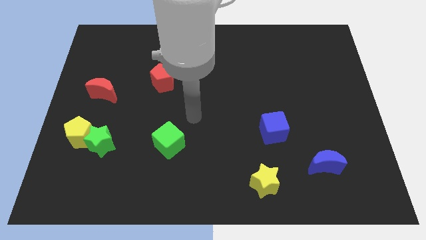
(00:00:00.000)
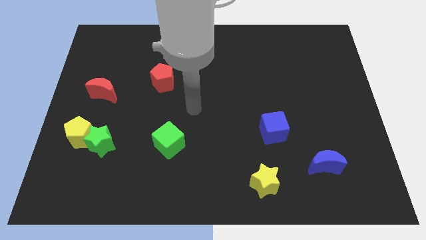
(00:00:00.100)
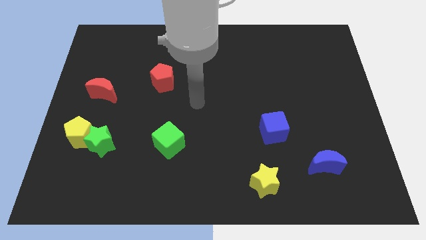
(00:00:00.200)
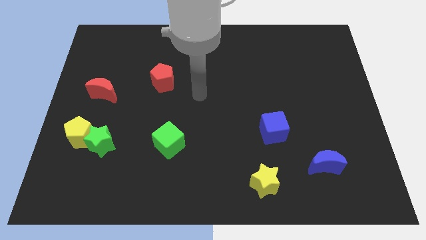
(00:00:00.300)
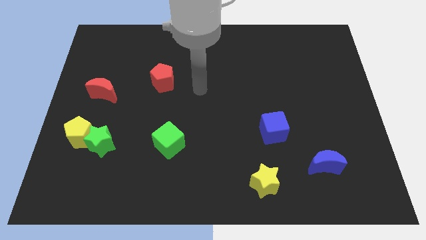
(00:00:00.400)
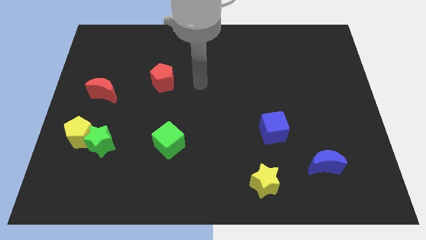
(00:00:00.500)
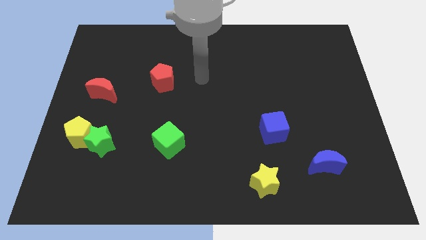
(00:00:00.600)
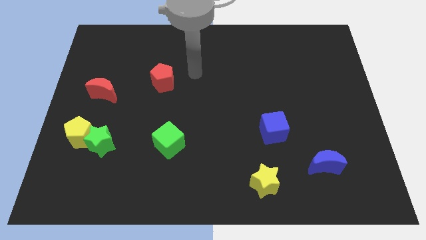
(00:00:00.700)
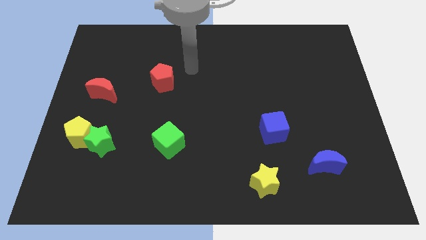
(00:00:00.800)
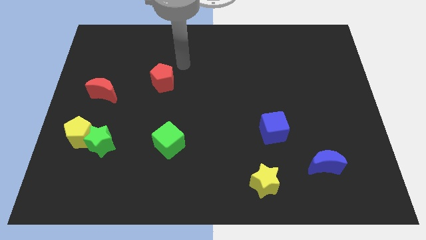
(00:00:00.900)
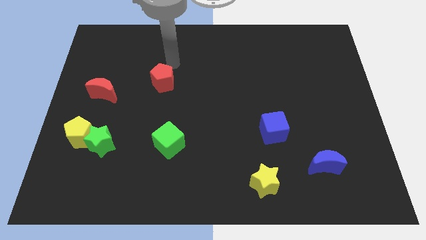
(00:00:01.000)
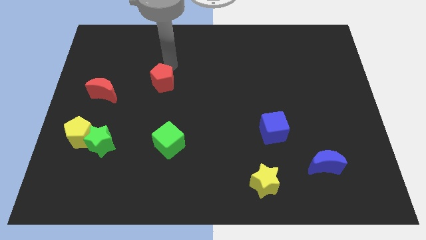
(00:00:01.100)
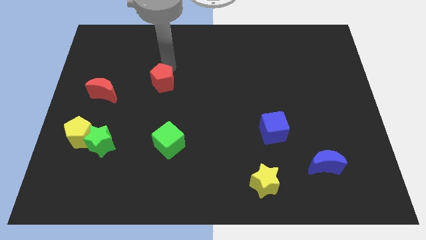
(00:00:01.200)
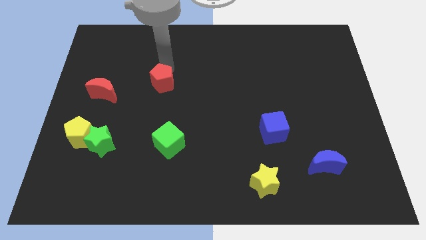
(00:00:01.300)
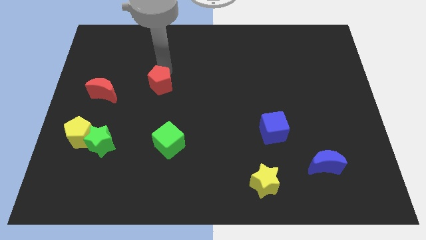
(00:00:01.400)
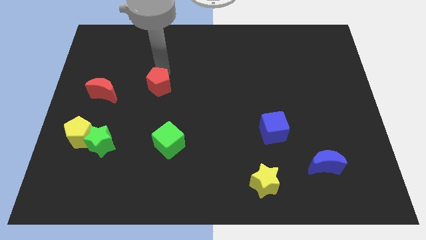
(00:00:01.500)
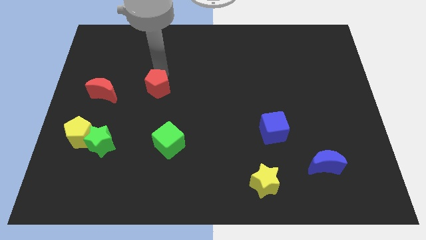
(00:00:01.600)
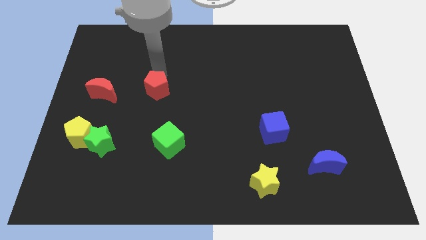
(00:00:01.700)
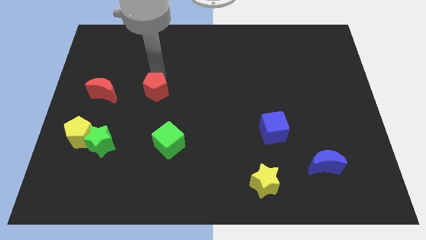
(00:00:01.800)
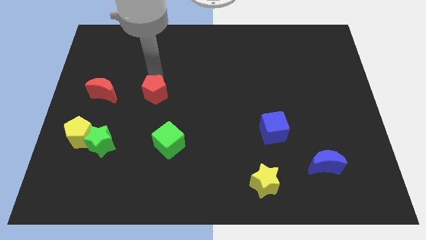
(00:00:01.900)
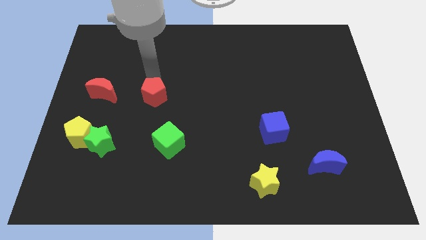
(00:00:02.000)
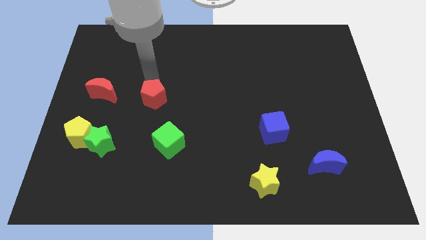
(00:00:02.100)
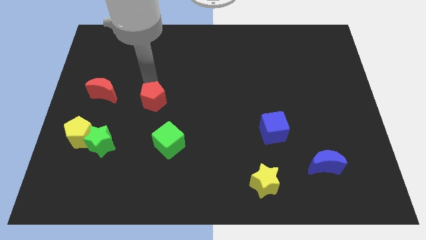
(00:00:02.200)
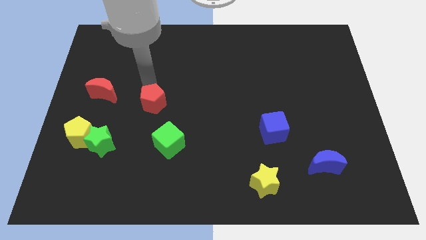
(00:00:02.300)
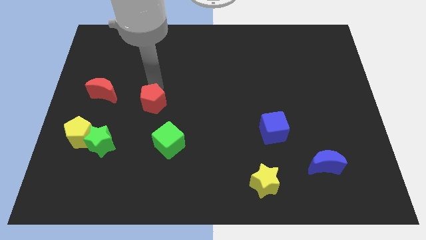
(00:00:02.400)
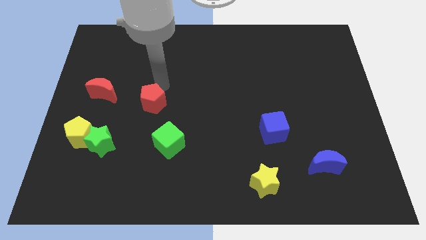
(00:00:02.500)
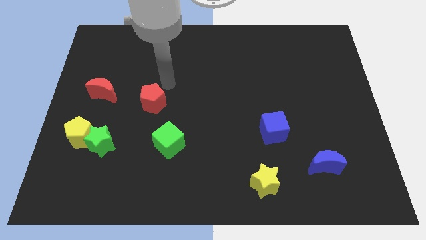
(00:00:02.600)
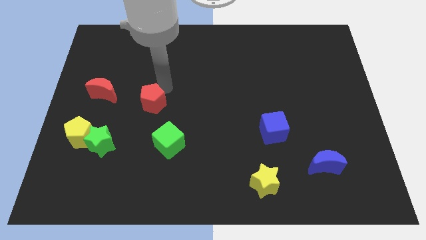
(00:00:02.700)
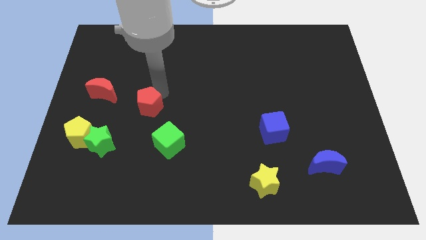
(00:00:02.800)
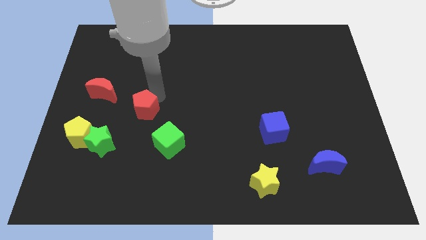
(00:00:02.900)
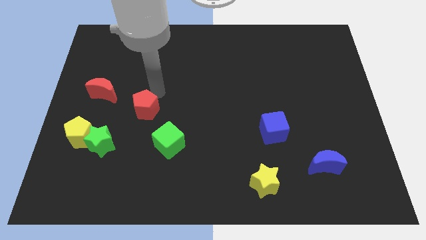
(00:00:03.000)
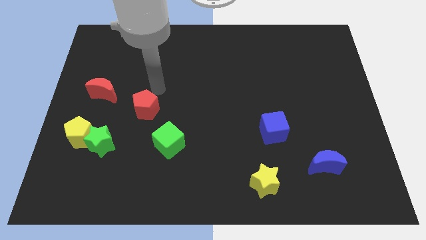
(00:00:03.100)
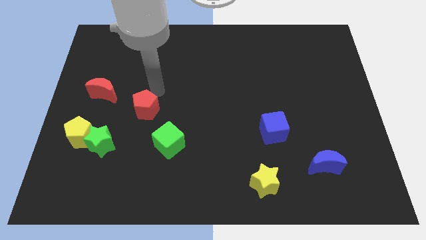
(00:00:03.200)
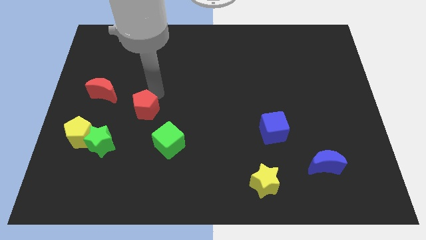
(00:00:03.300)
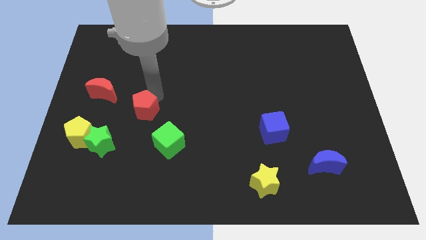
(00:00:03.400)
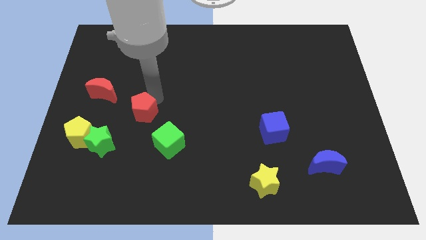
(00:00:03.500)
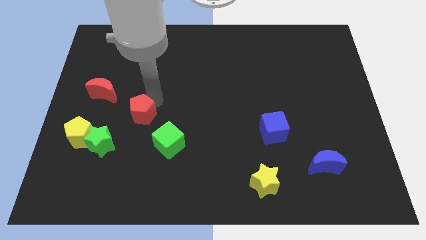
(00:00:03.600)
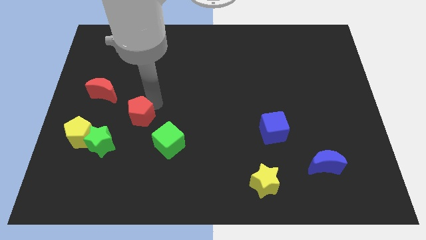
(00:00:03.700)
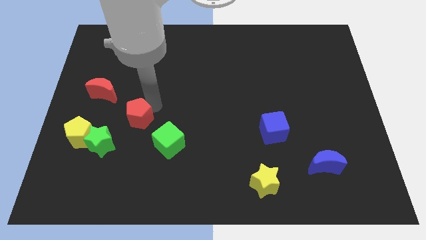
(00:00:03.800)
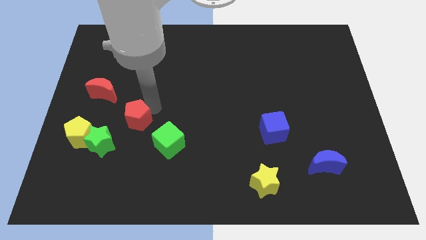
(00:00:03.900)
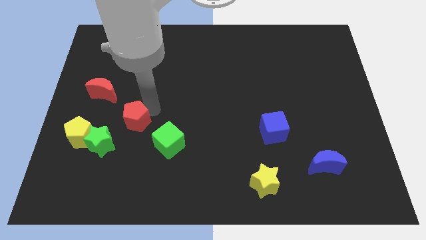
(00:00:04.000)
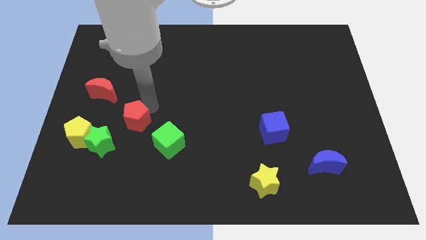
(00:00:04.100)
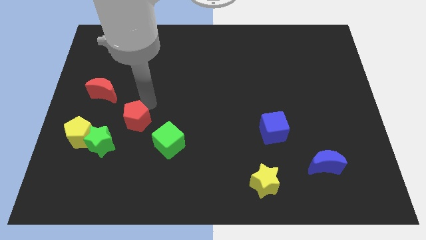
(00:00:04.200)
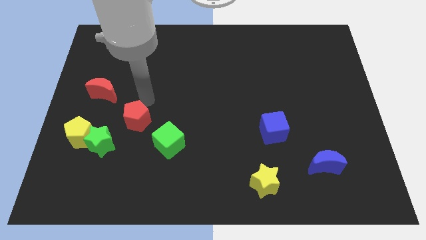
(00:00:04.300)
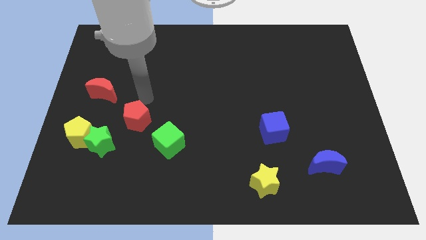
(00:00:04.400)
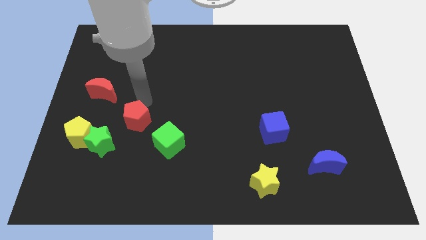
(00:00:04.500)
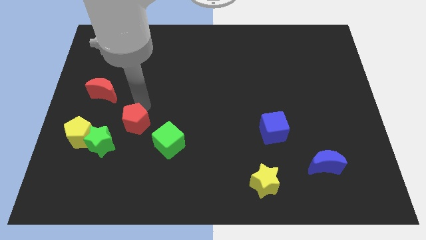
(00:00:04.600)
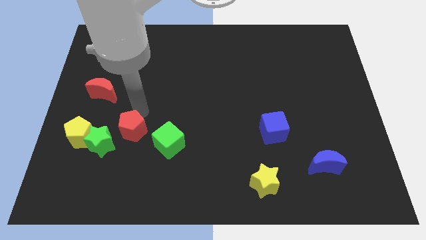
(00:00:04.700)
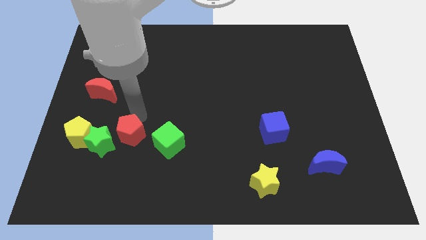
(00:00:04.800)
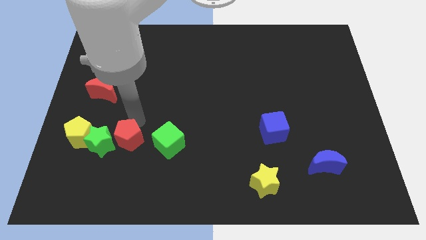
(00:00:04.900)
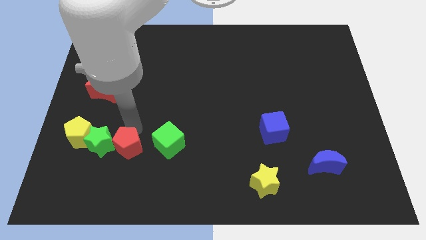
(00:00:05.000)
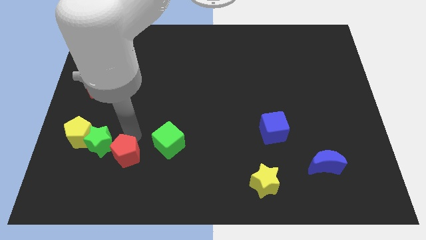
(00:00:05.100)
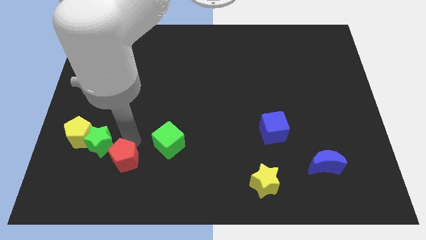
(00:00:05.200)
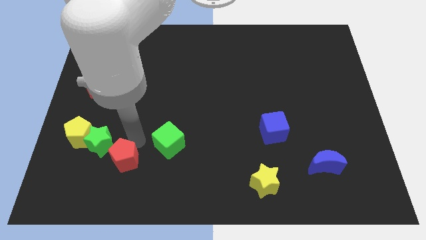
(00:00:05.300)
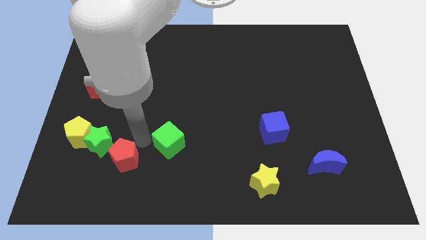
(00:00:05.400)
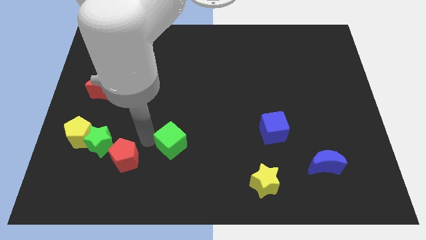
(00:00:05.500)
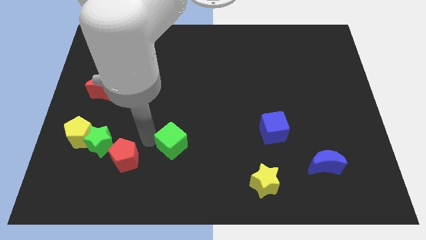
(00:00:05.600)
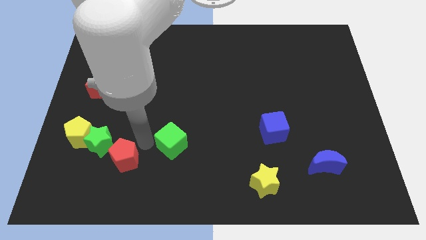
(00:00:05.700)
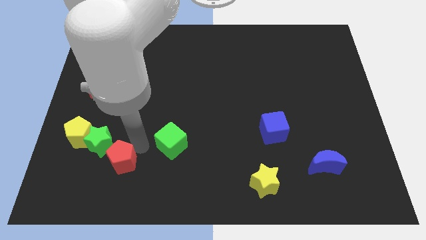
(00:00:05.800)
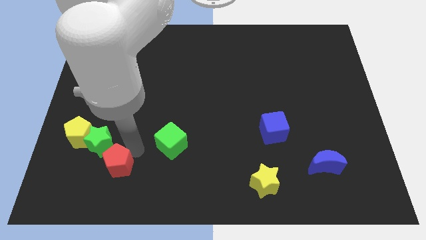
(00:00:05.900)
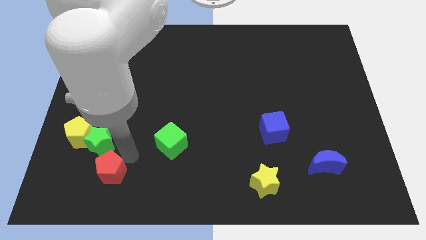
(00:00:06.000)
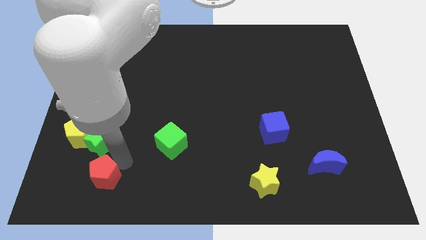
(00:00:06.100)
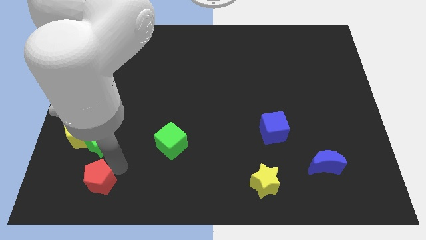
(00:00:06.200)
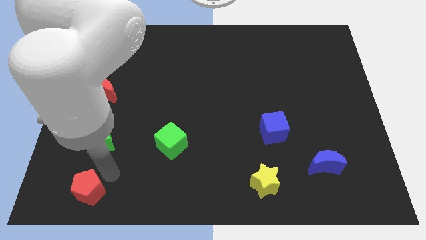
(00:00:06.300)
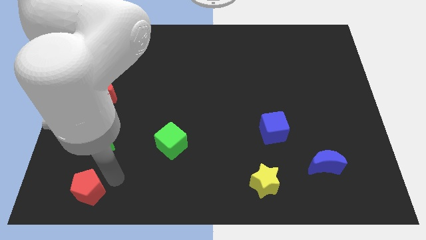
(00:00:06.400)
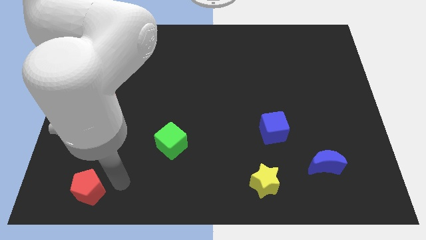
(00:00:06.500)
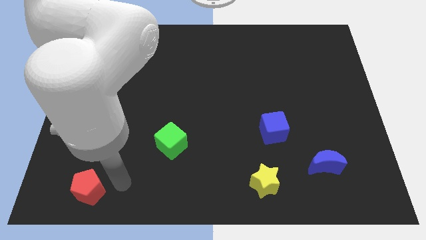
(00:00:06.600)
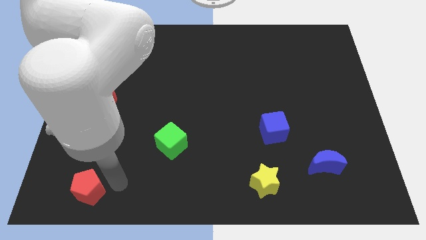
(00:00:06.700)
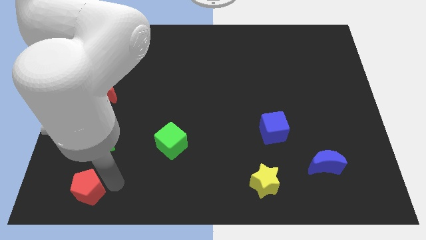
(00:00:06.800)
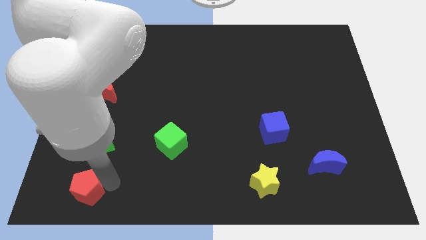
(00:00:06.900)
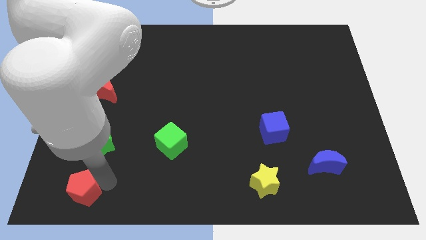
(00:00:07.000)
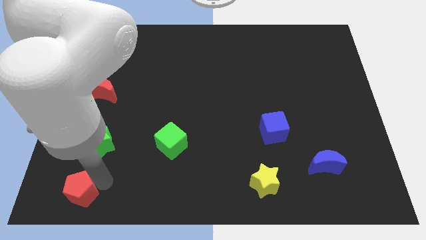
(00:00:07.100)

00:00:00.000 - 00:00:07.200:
push the red pentagon to the bottom left
